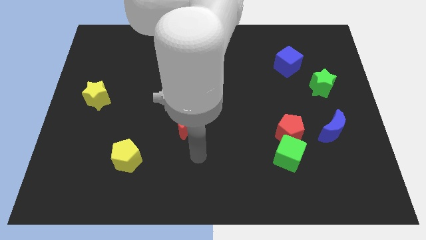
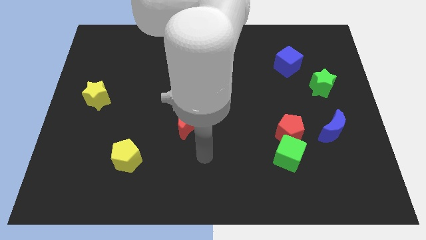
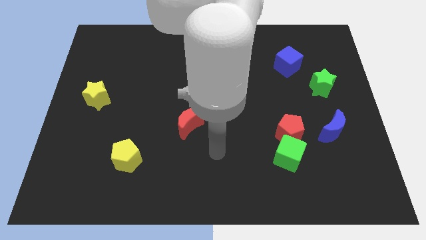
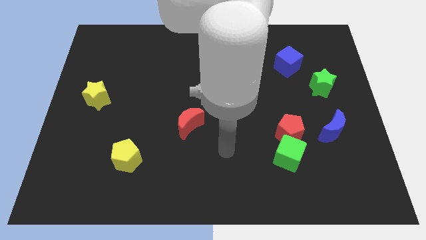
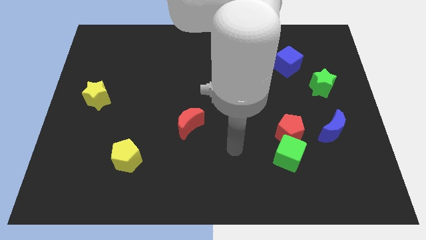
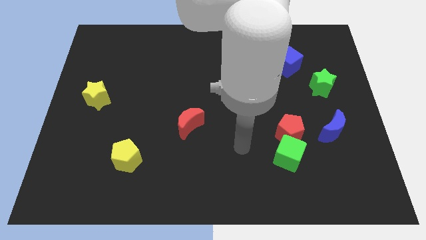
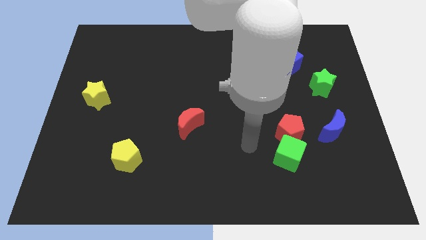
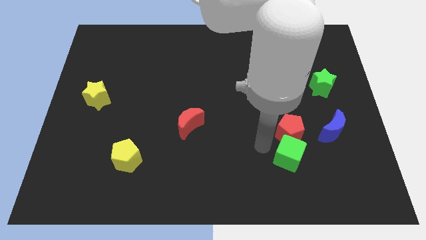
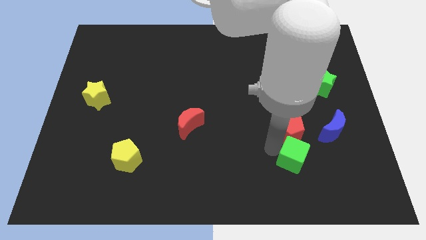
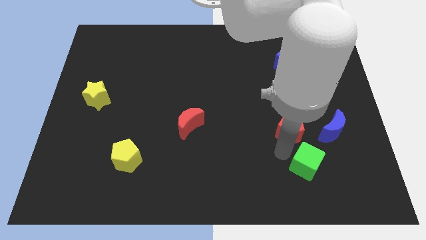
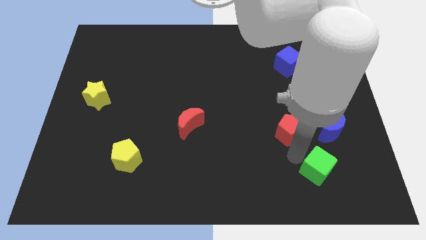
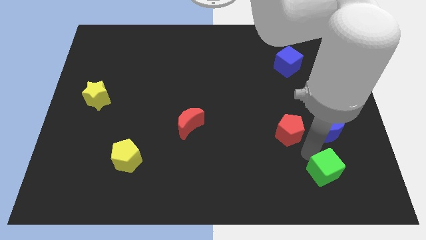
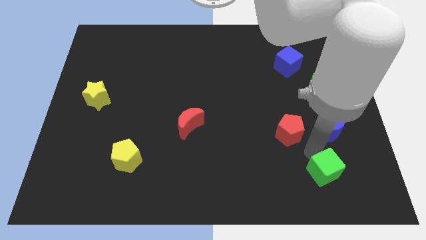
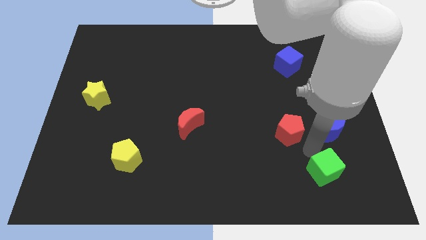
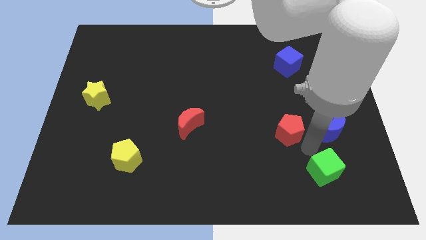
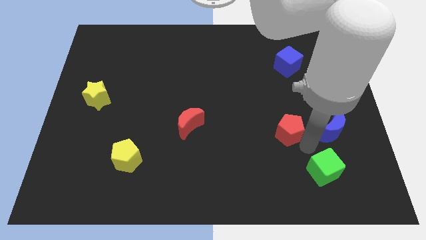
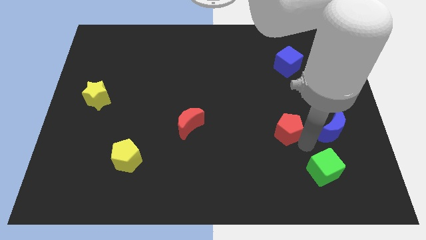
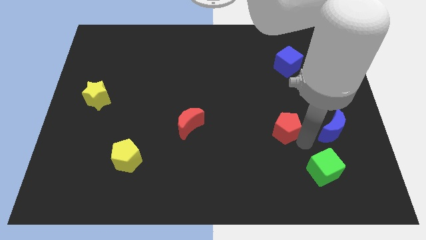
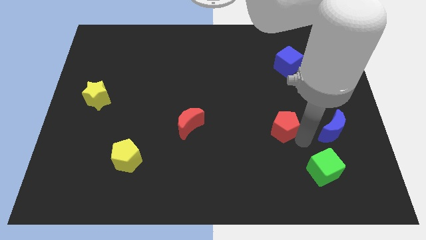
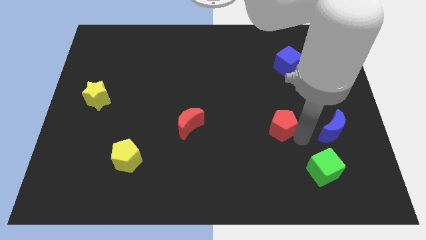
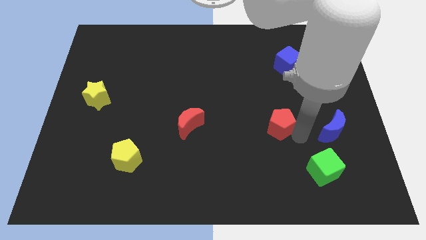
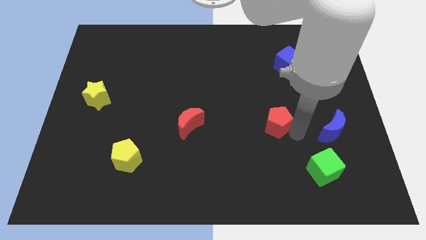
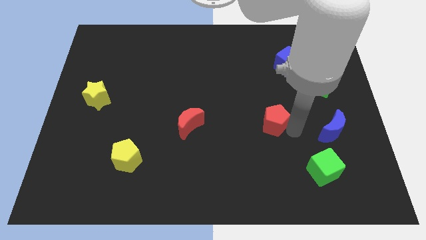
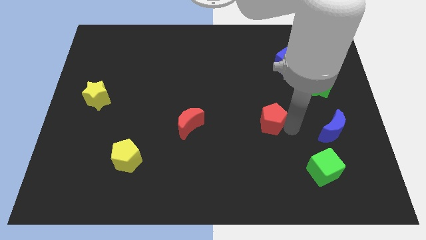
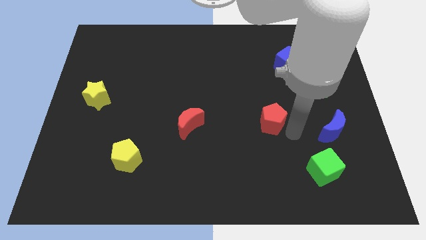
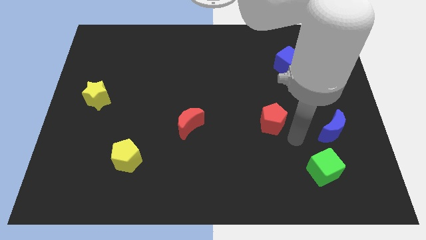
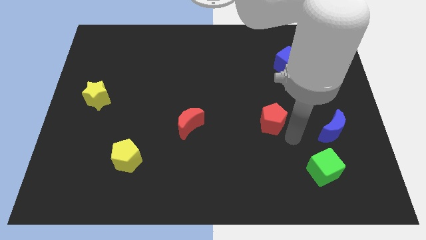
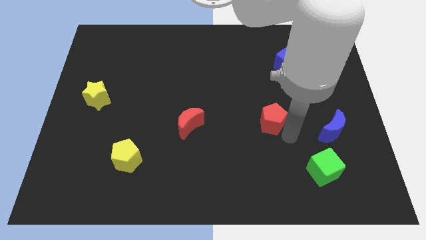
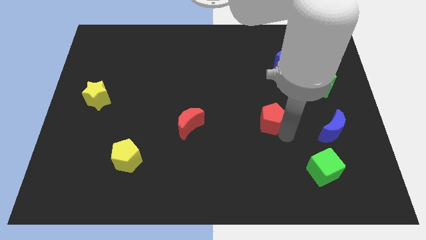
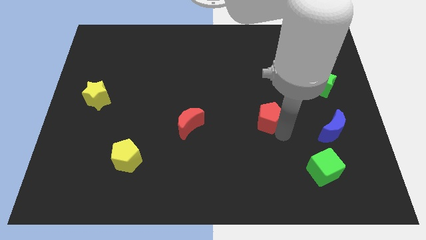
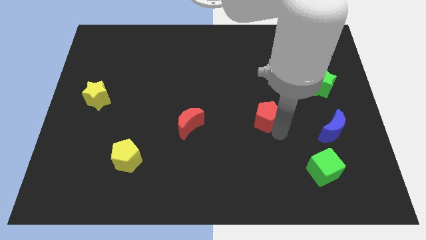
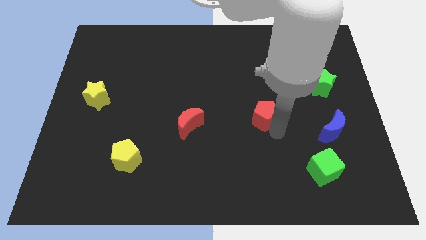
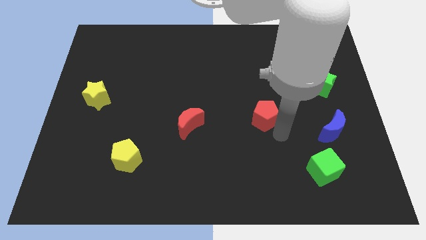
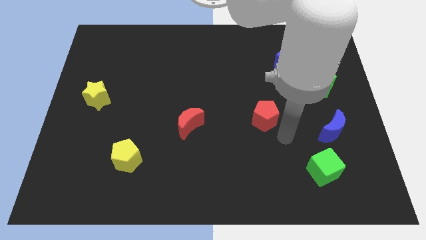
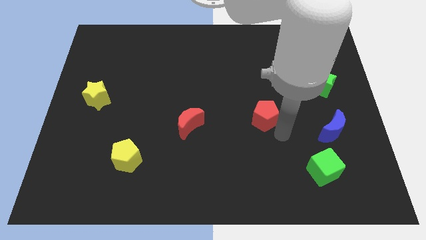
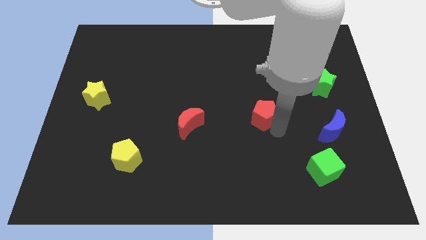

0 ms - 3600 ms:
move the red pentagon a bit diagonally upwards and left

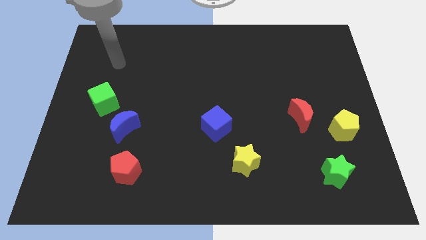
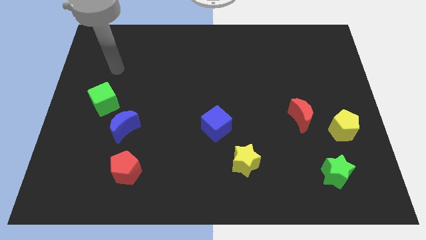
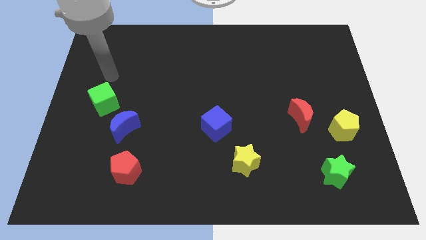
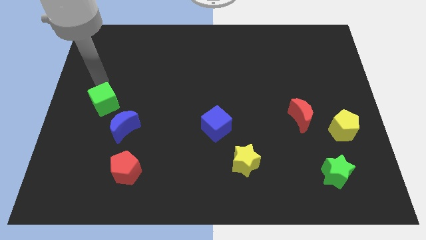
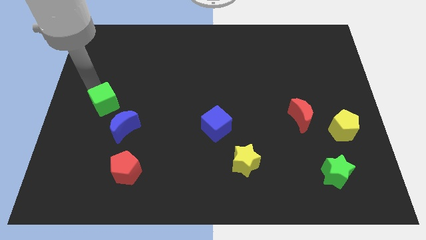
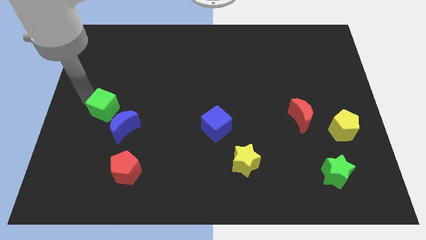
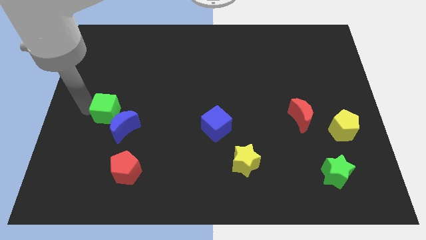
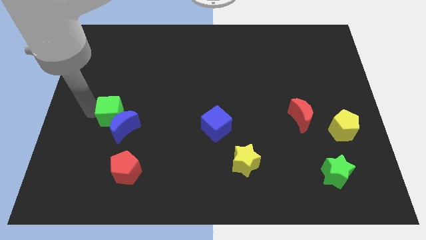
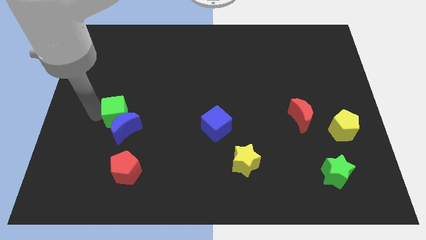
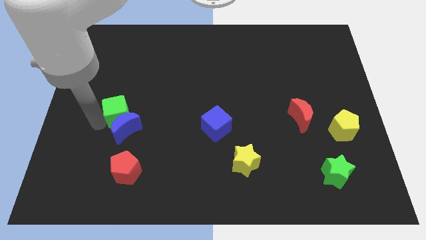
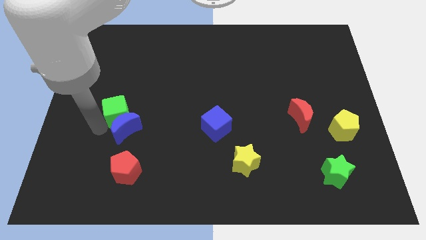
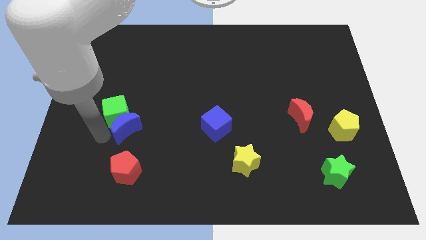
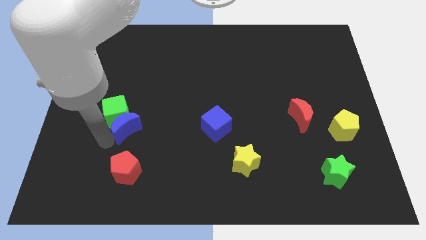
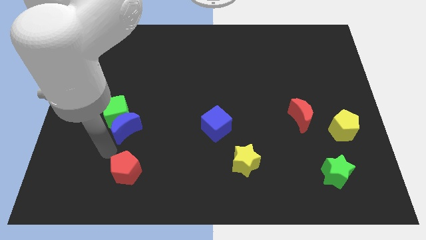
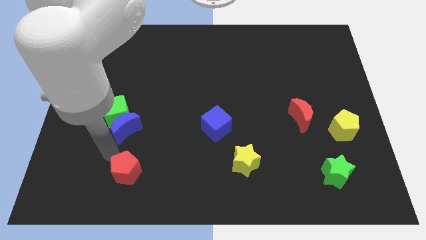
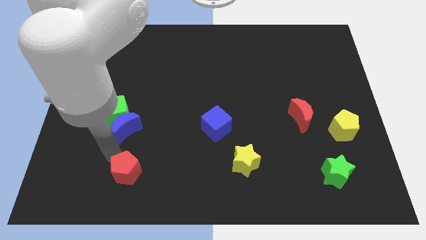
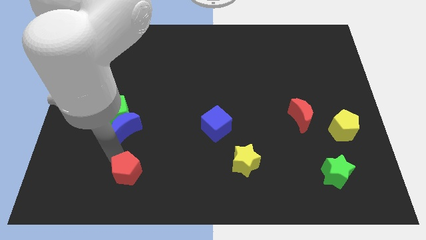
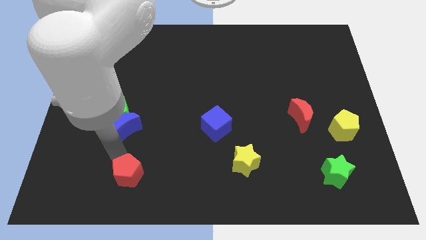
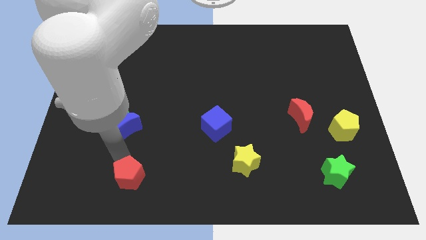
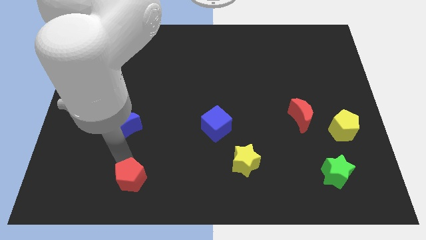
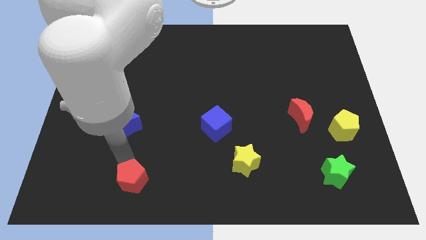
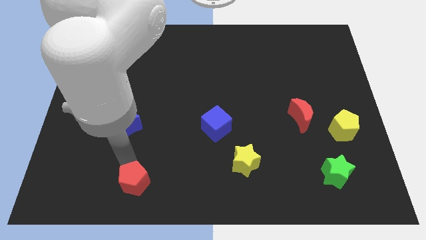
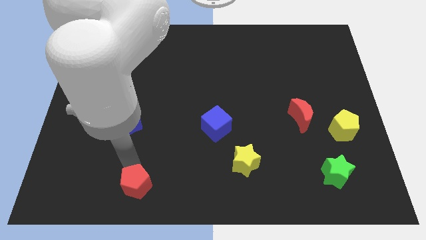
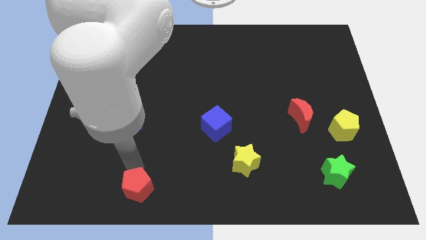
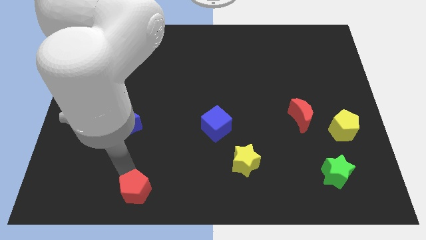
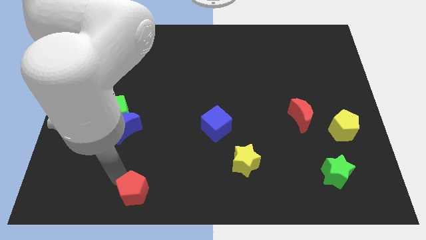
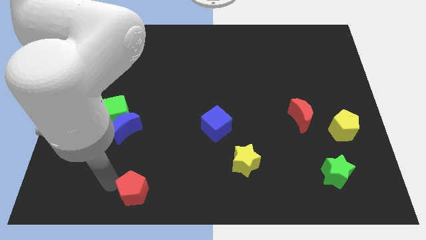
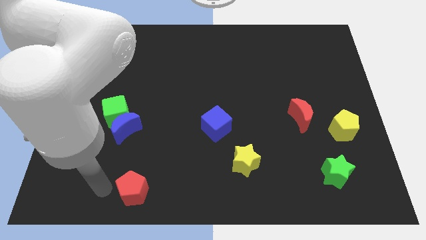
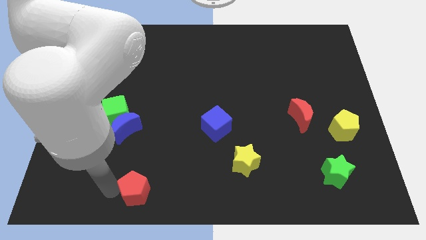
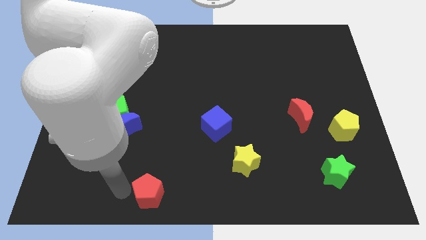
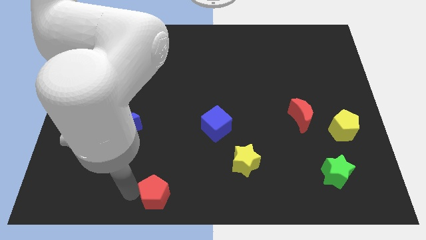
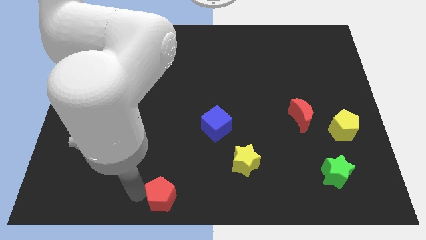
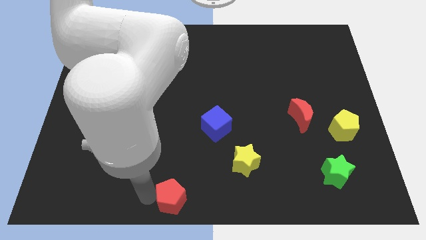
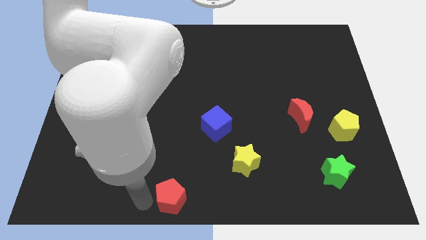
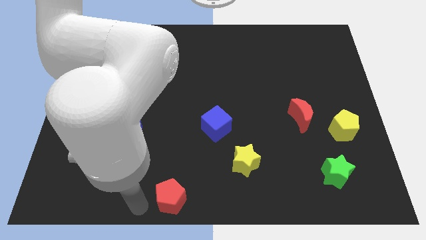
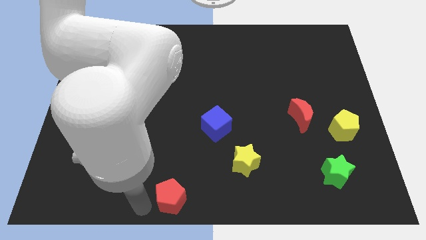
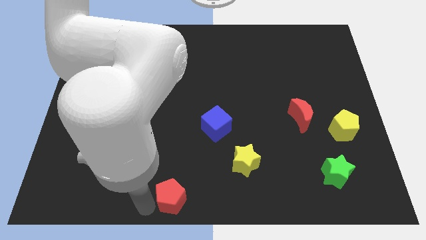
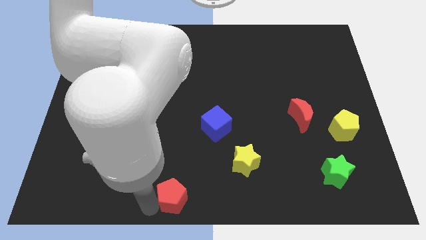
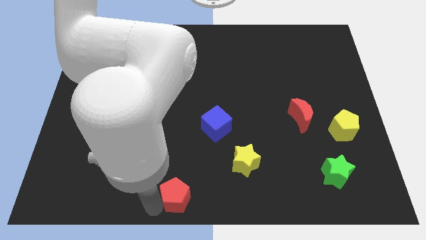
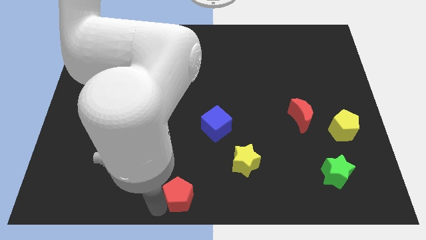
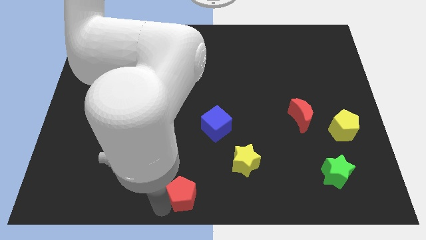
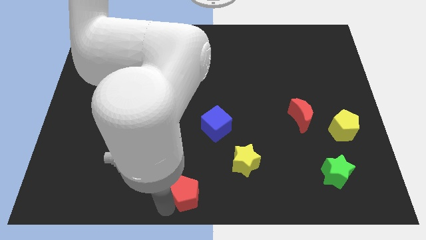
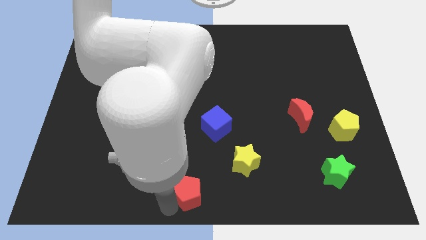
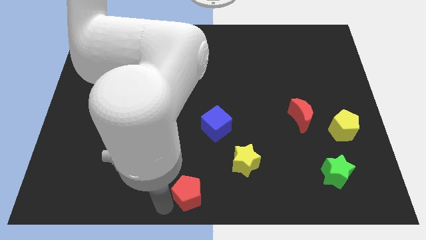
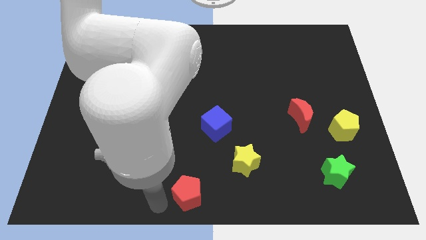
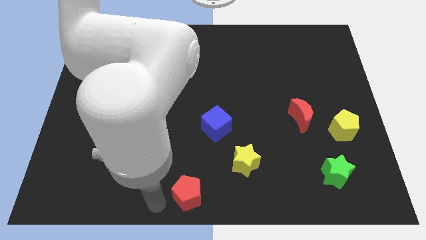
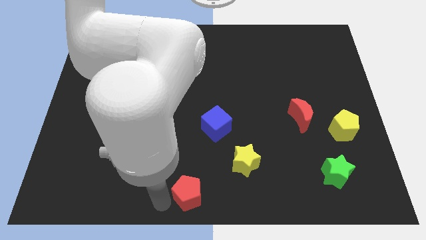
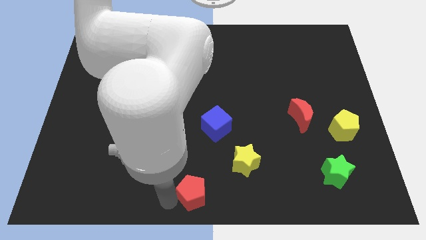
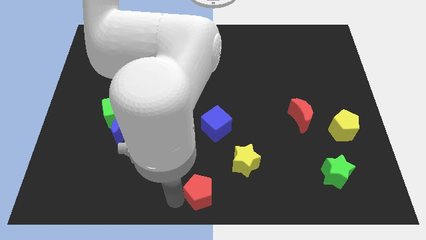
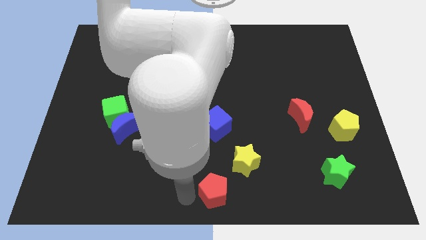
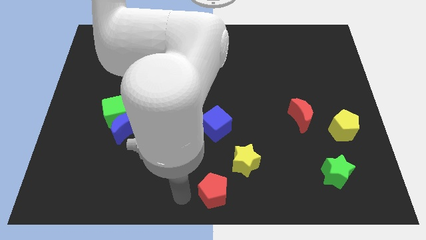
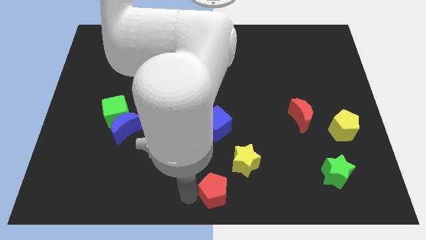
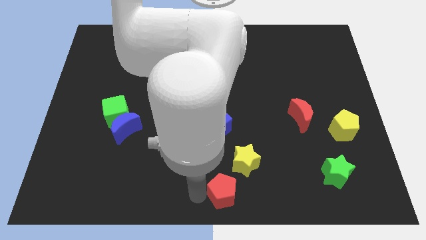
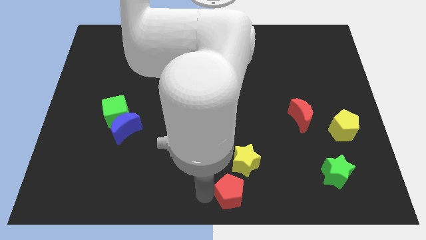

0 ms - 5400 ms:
slide the red pentagon right
